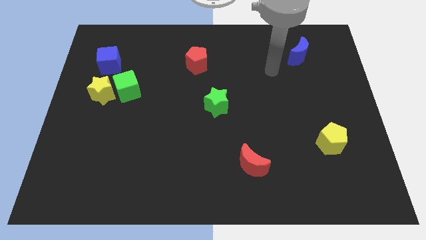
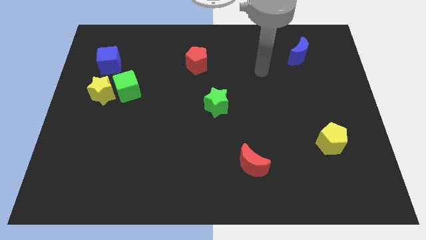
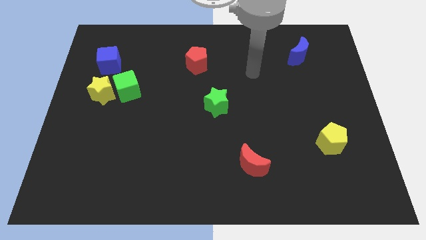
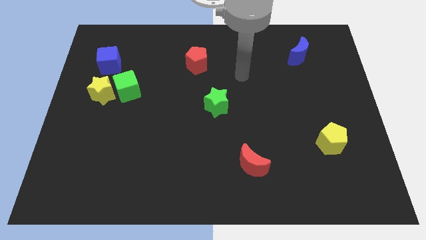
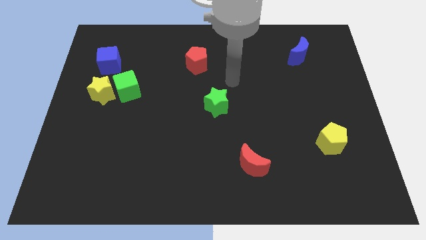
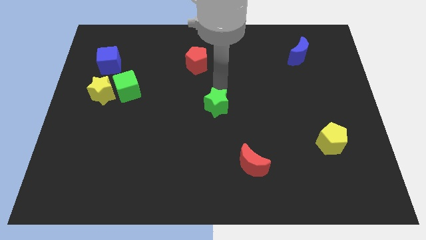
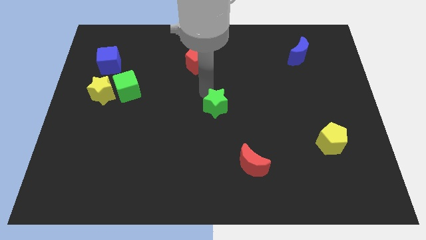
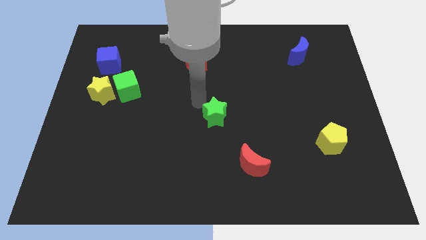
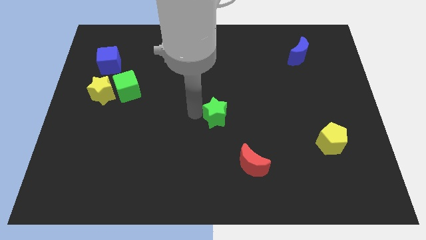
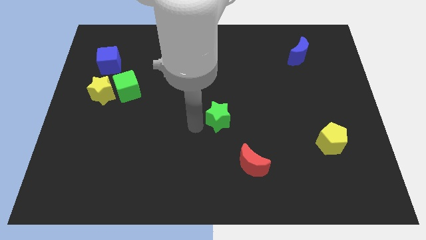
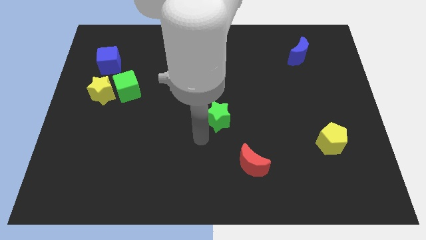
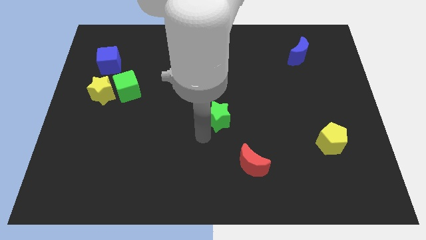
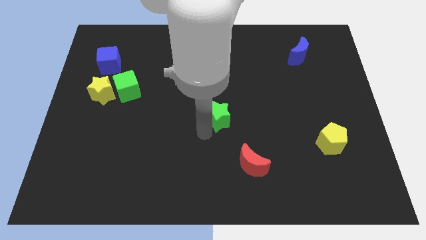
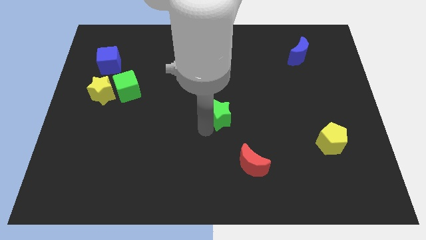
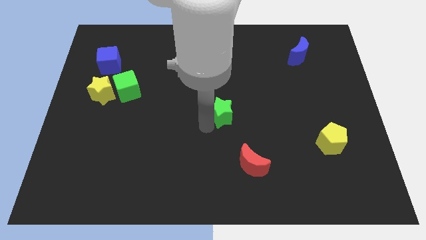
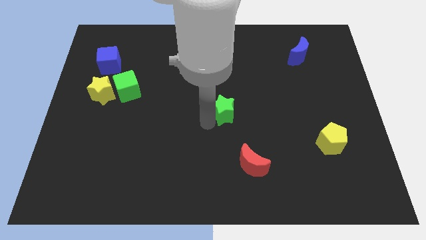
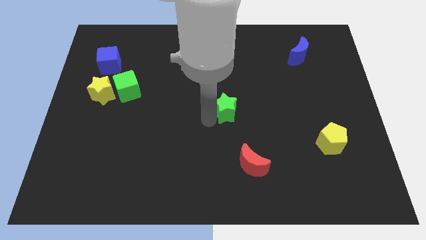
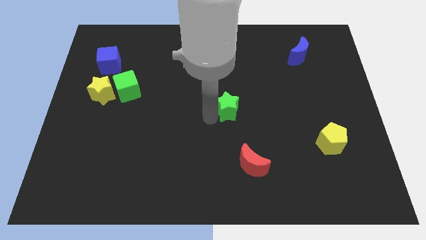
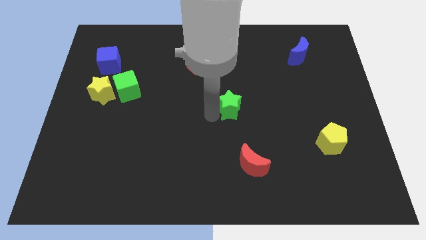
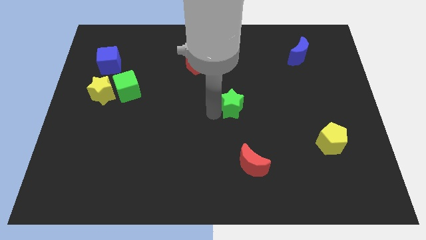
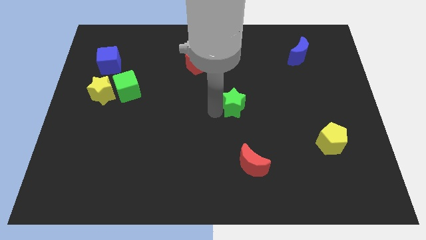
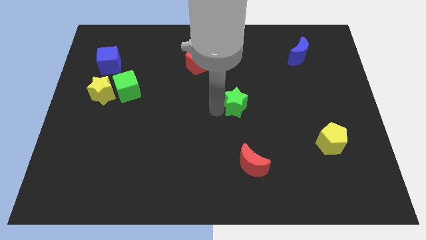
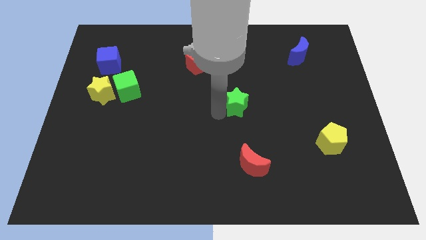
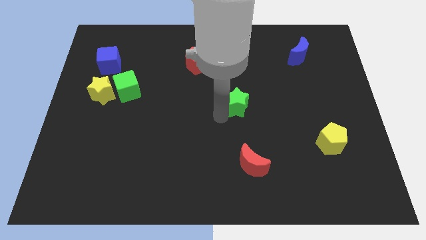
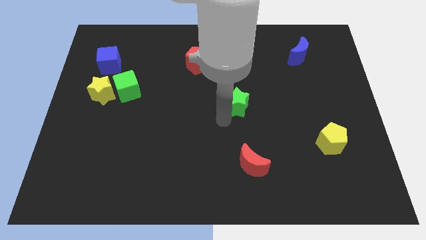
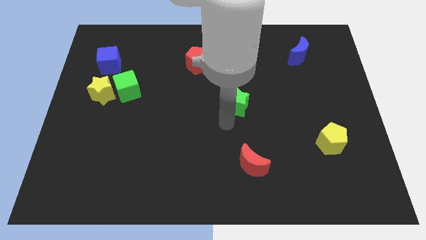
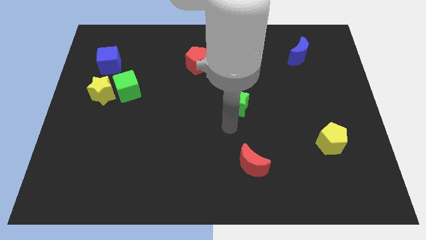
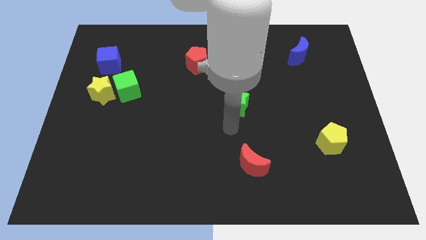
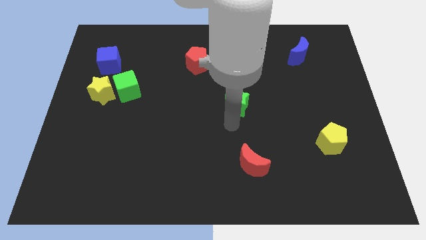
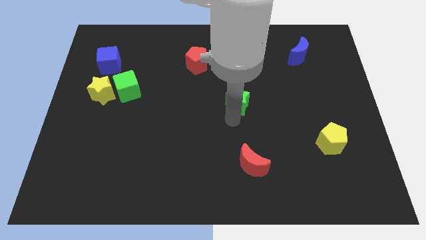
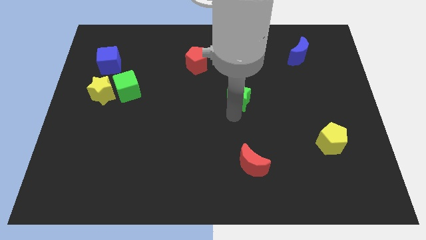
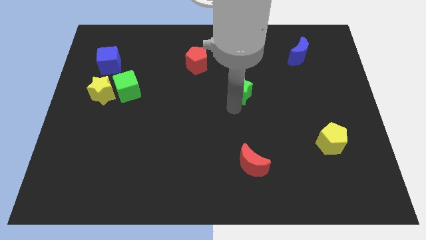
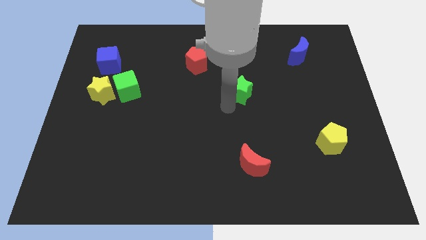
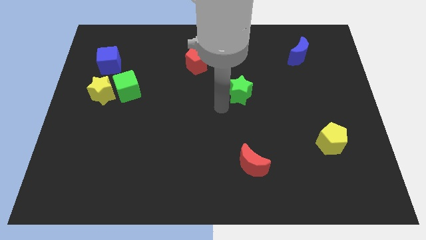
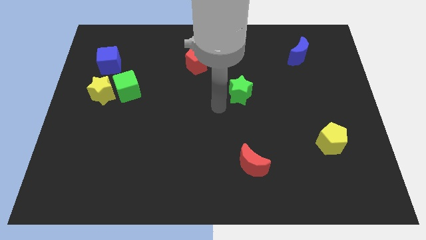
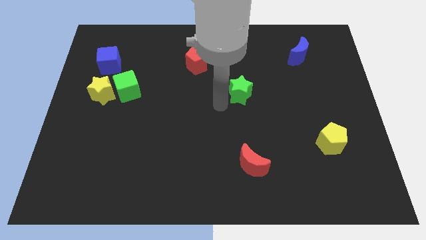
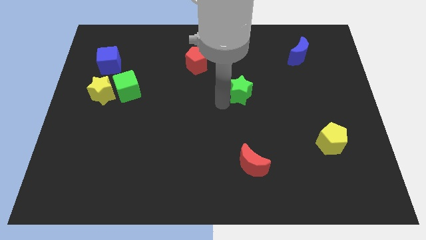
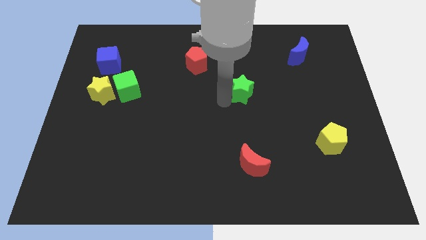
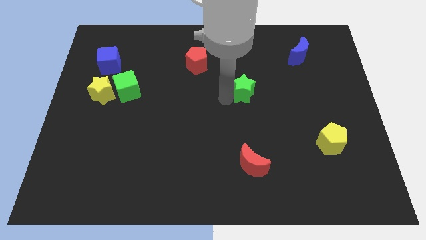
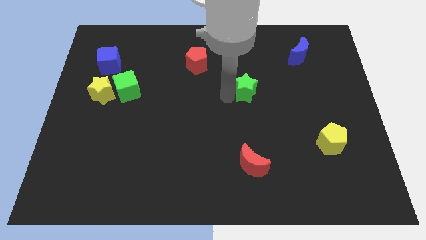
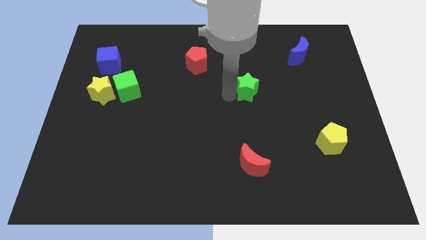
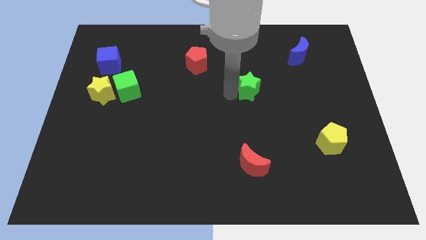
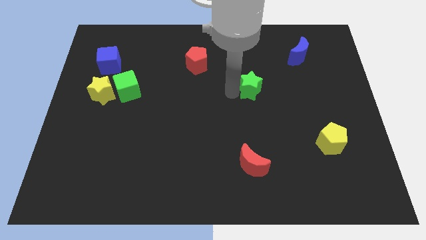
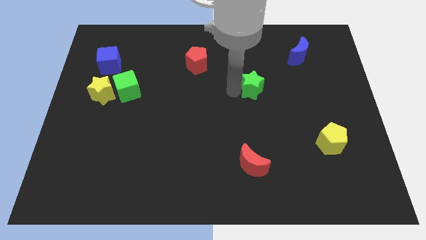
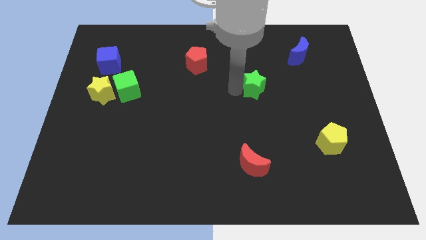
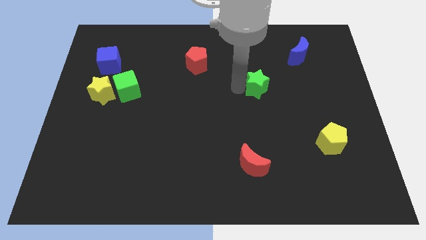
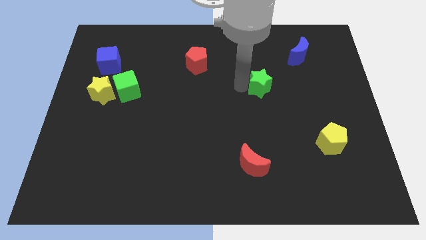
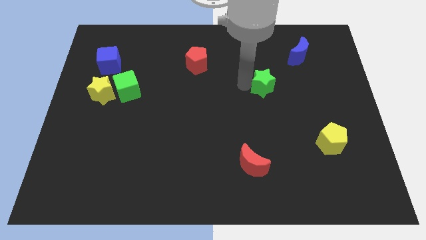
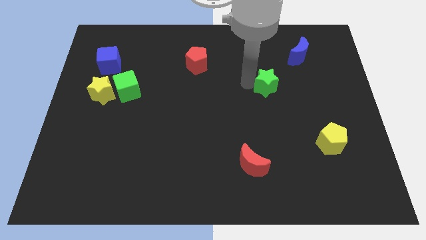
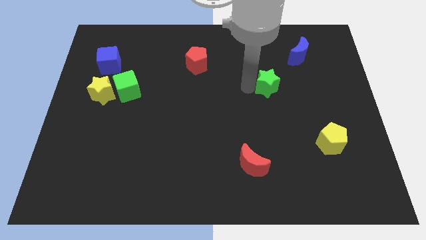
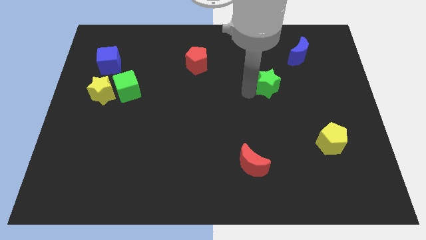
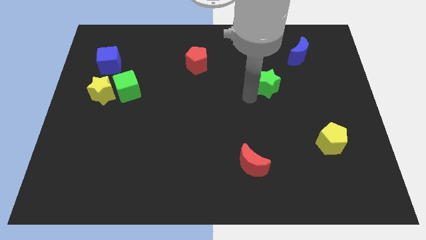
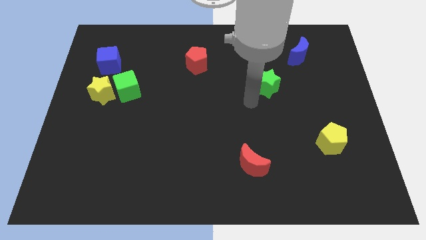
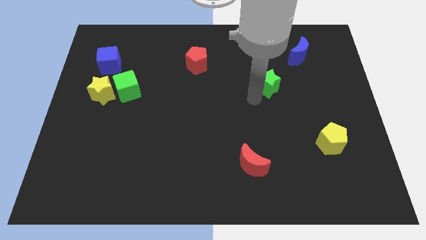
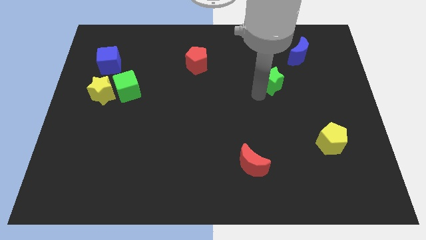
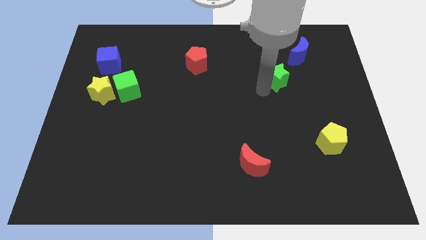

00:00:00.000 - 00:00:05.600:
put the green star to the bottom left side of the blue moon
